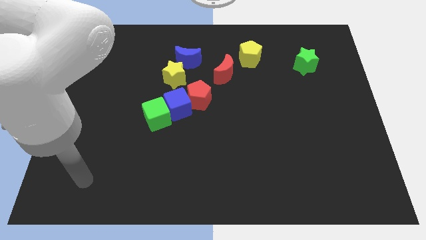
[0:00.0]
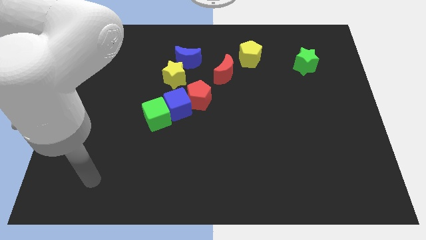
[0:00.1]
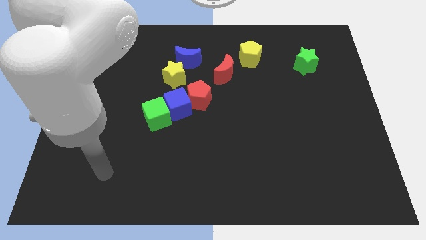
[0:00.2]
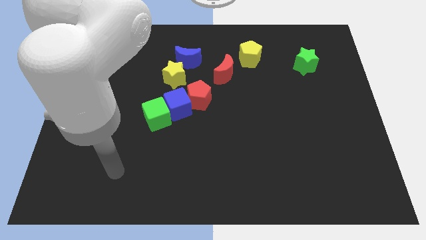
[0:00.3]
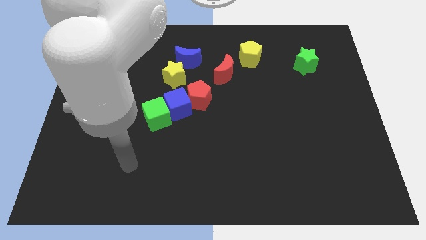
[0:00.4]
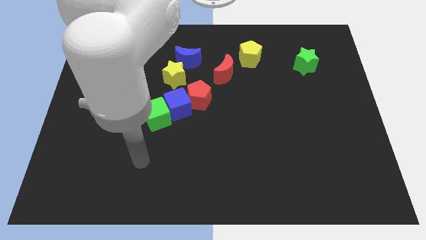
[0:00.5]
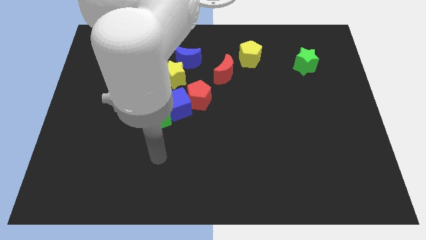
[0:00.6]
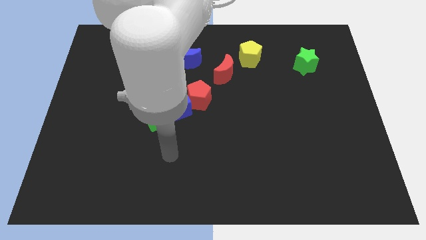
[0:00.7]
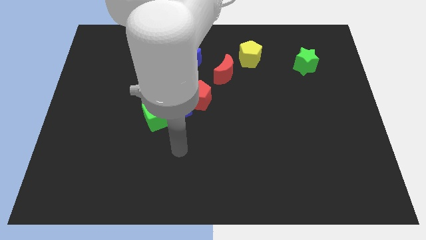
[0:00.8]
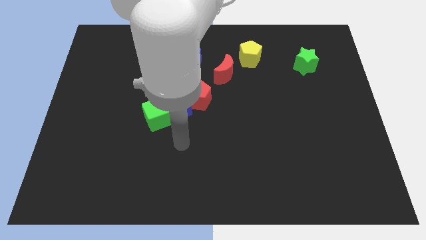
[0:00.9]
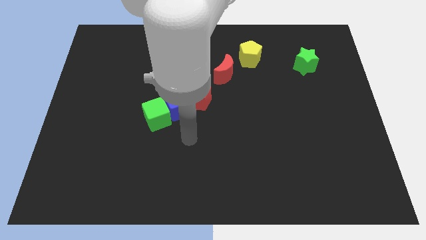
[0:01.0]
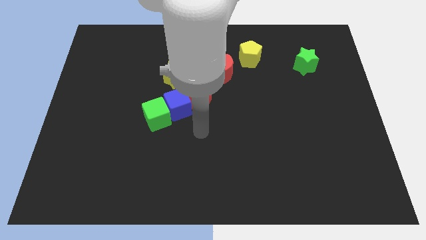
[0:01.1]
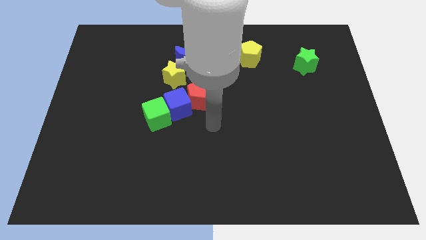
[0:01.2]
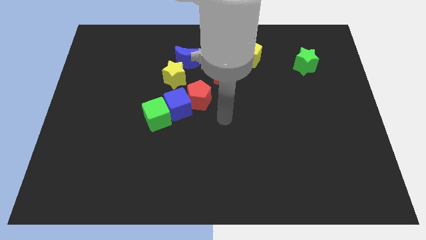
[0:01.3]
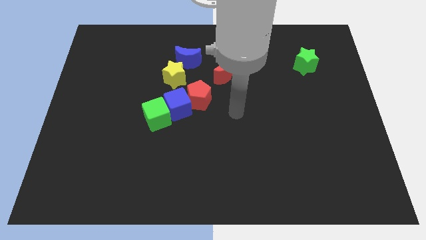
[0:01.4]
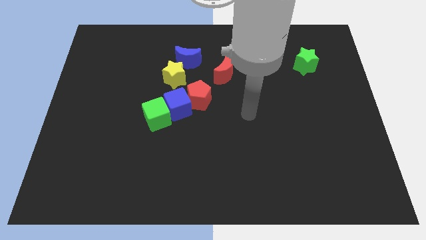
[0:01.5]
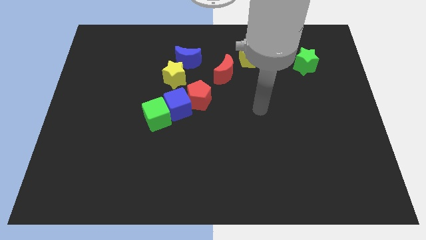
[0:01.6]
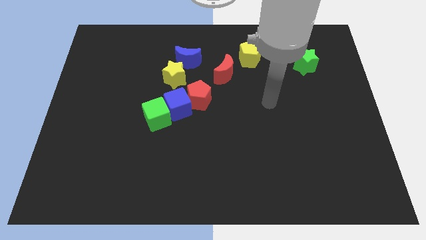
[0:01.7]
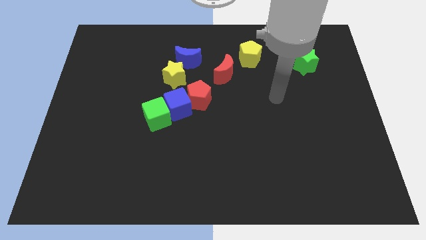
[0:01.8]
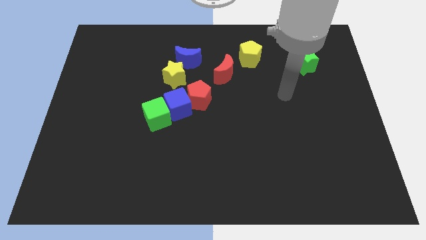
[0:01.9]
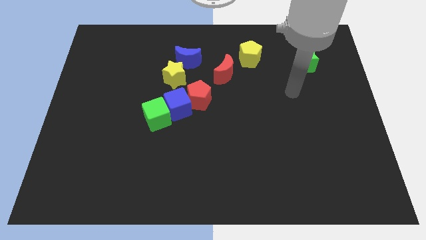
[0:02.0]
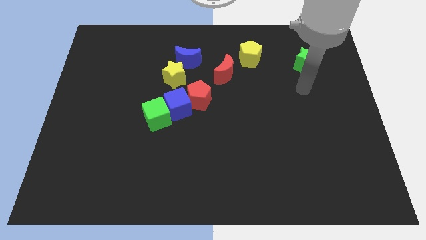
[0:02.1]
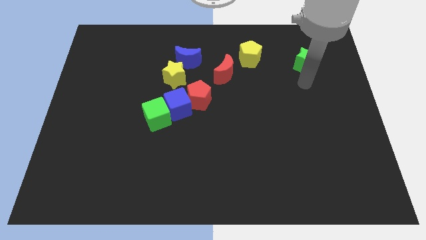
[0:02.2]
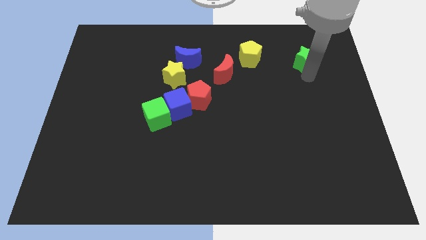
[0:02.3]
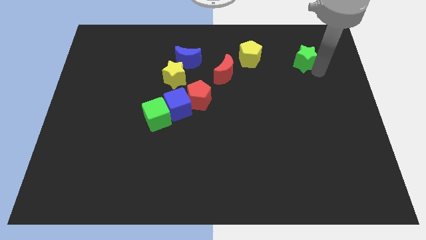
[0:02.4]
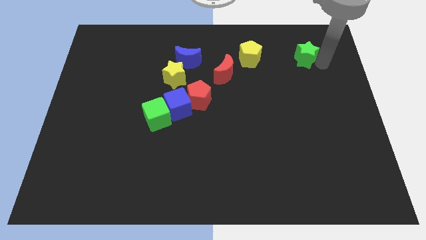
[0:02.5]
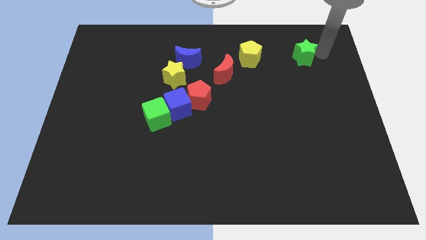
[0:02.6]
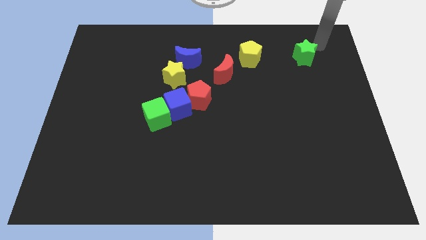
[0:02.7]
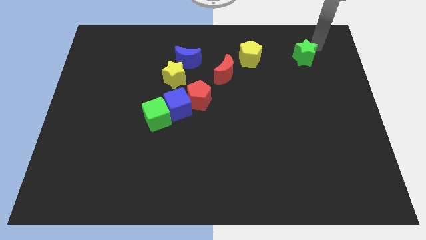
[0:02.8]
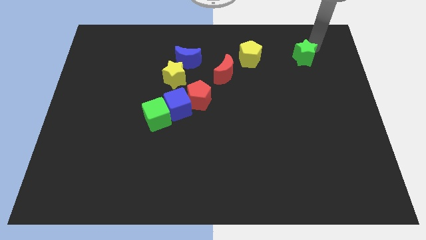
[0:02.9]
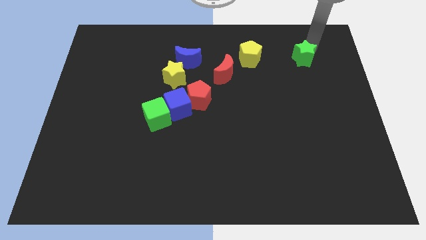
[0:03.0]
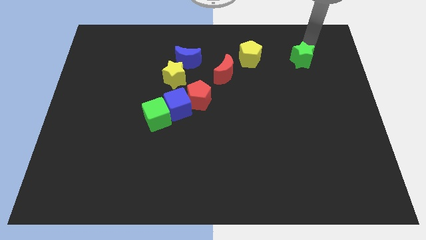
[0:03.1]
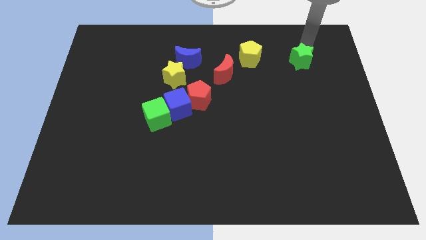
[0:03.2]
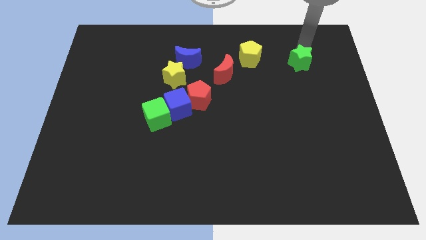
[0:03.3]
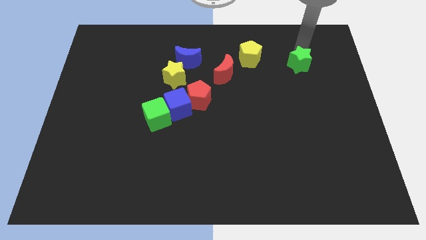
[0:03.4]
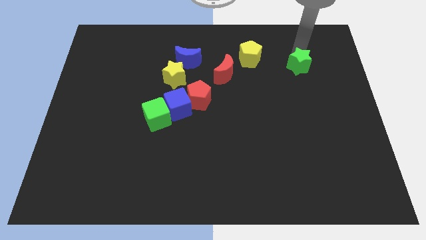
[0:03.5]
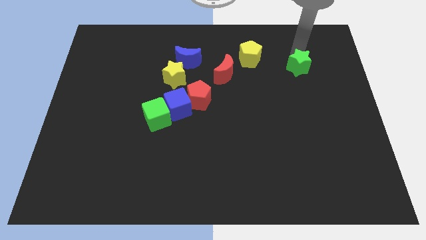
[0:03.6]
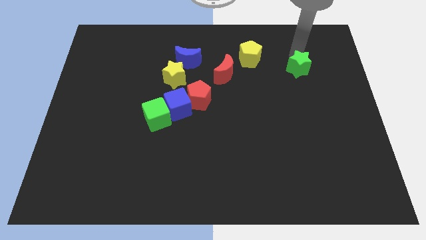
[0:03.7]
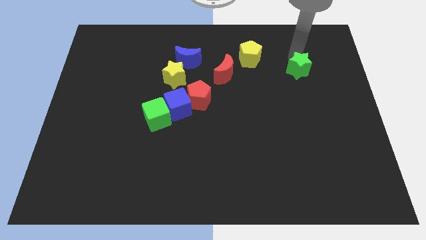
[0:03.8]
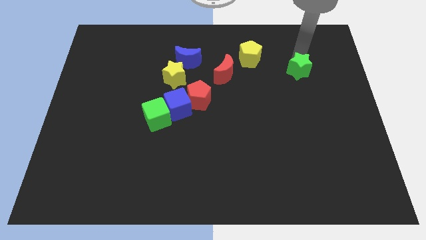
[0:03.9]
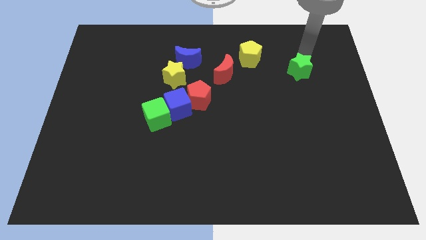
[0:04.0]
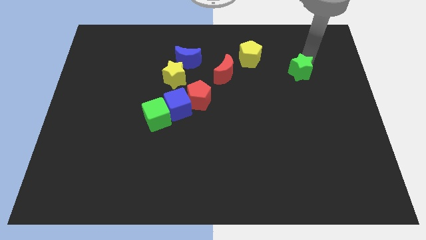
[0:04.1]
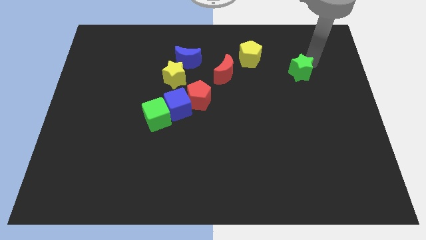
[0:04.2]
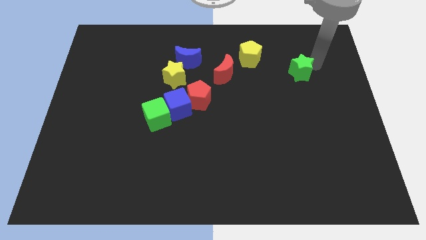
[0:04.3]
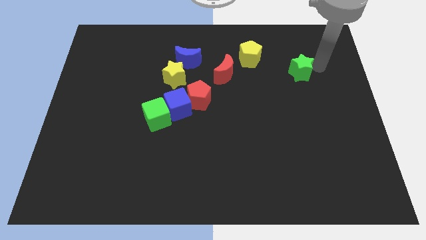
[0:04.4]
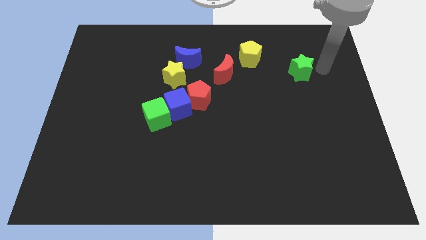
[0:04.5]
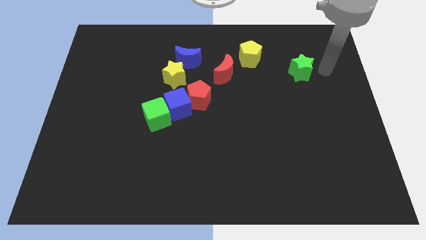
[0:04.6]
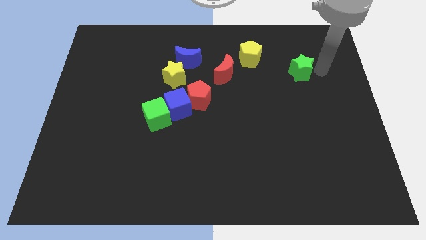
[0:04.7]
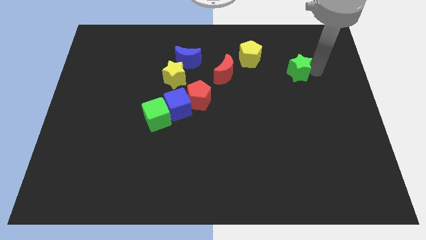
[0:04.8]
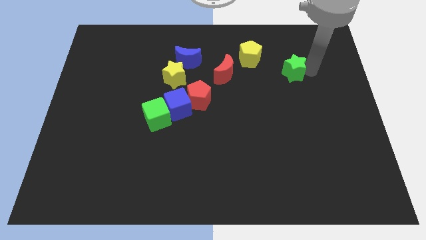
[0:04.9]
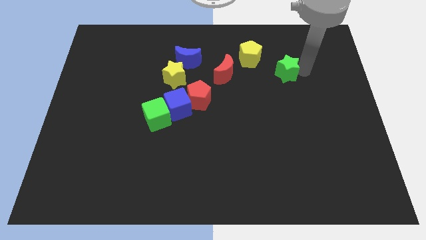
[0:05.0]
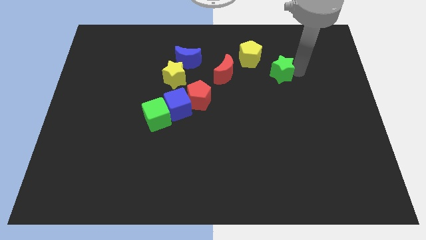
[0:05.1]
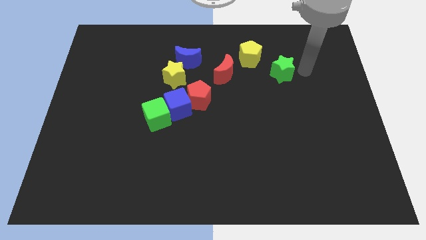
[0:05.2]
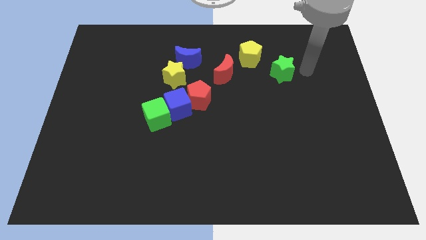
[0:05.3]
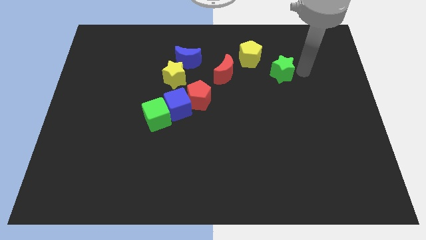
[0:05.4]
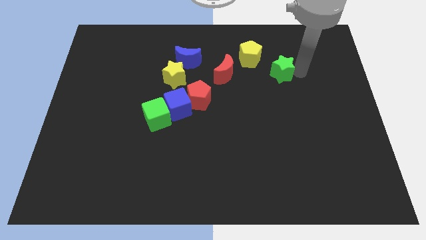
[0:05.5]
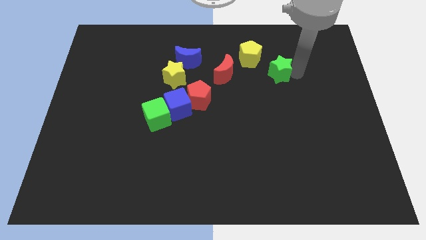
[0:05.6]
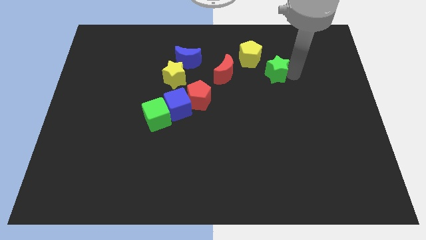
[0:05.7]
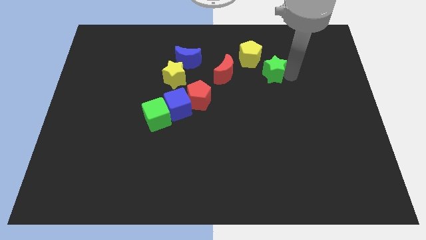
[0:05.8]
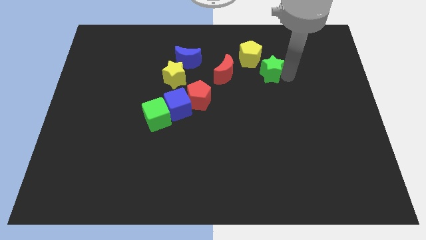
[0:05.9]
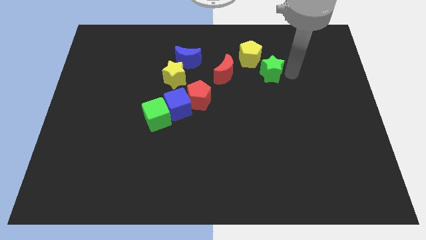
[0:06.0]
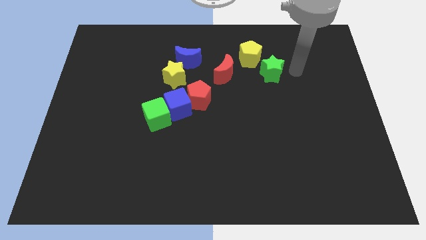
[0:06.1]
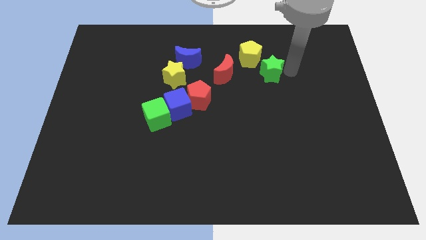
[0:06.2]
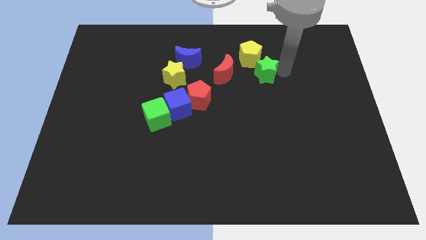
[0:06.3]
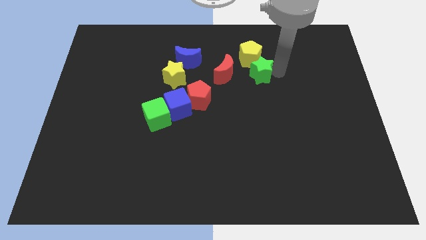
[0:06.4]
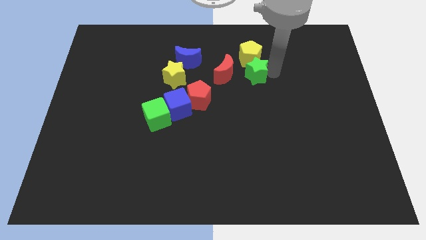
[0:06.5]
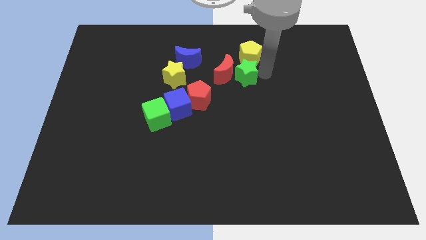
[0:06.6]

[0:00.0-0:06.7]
push the green star close to the red moon

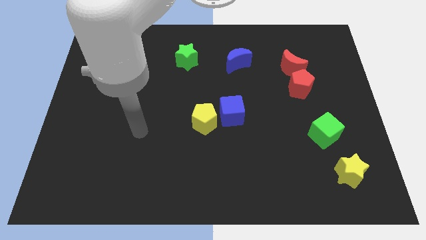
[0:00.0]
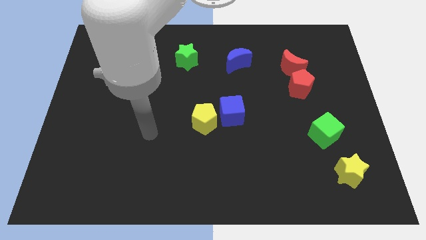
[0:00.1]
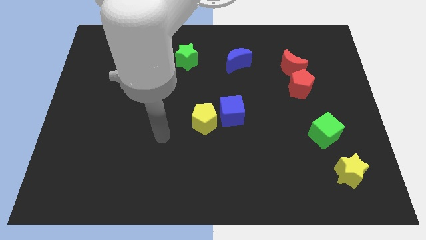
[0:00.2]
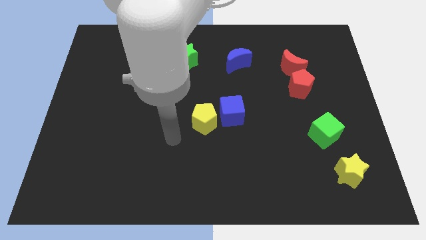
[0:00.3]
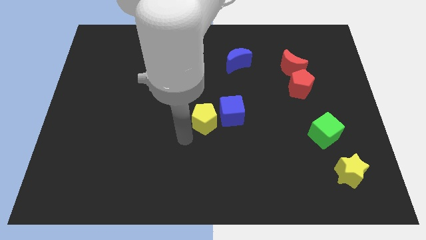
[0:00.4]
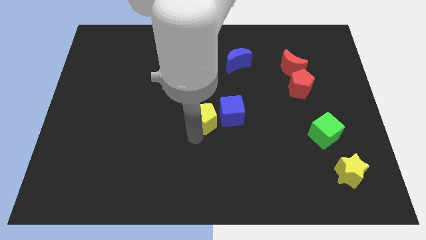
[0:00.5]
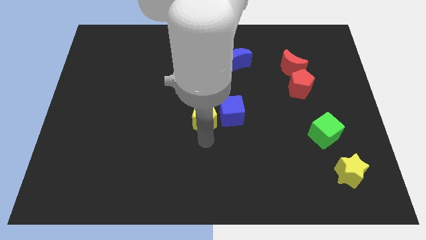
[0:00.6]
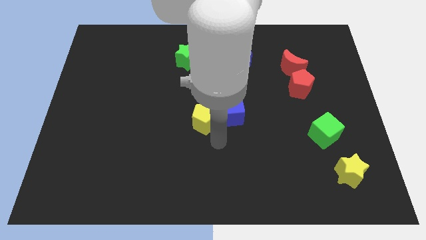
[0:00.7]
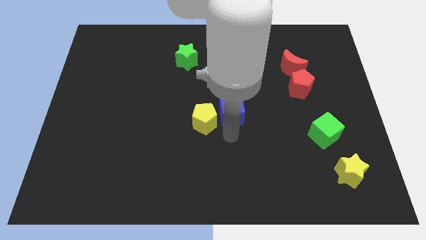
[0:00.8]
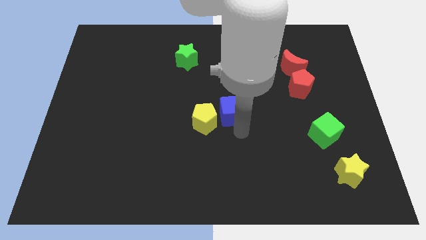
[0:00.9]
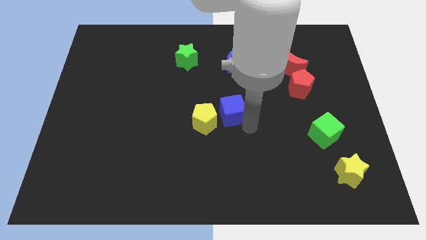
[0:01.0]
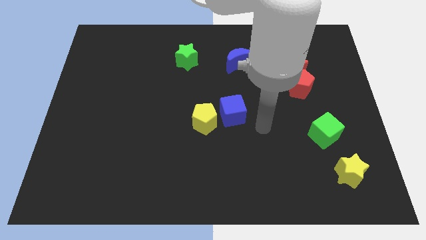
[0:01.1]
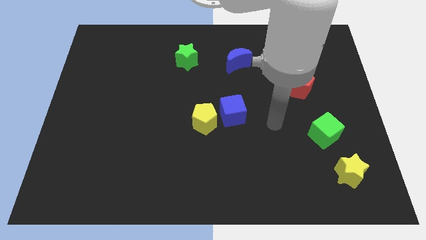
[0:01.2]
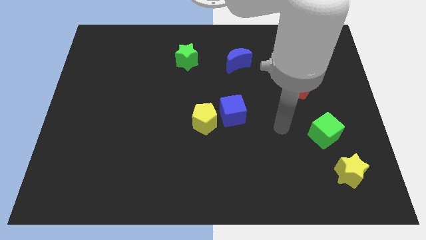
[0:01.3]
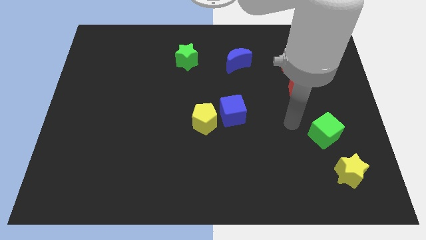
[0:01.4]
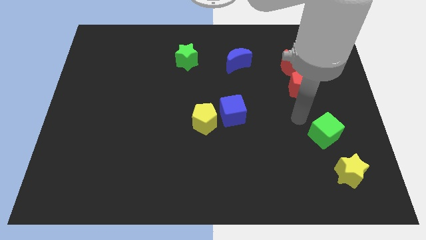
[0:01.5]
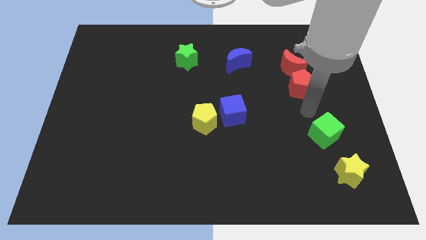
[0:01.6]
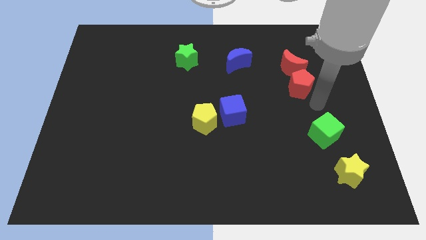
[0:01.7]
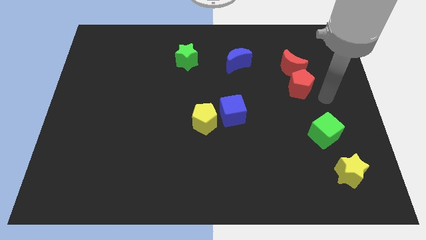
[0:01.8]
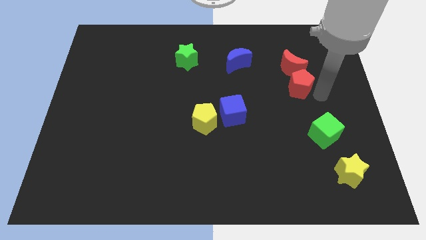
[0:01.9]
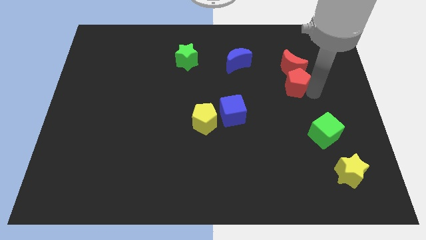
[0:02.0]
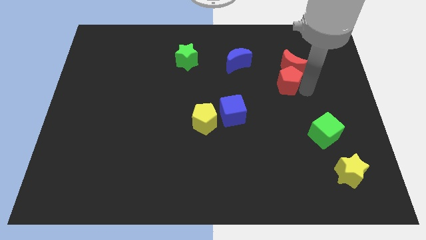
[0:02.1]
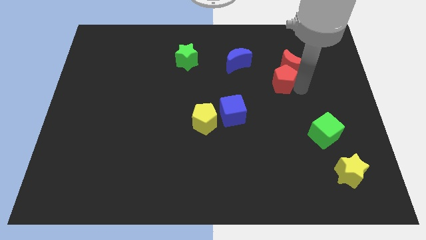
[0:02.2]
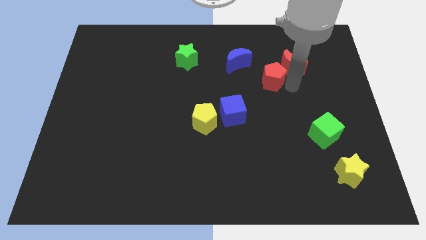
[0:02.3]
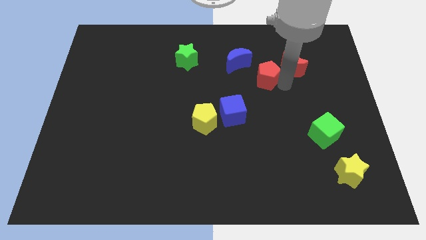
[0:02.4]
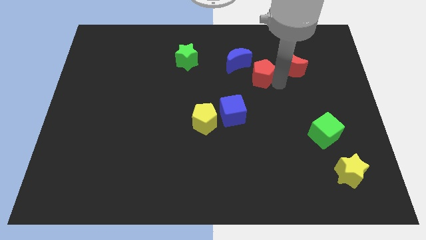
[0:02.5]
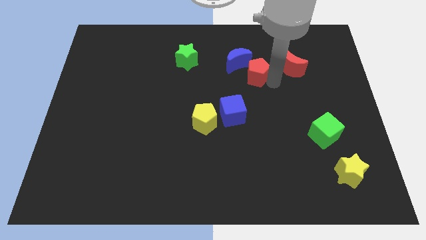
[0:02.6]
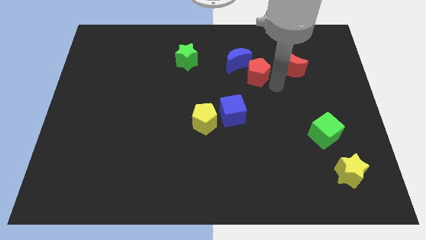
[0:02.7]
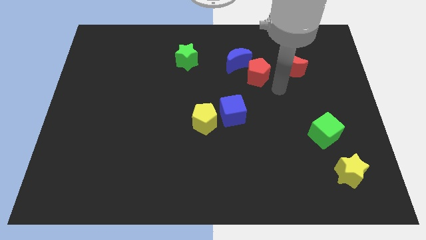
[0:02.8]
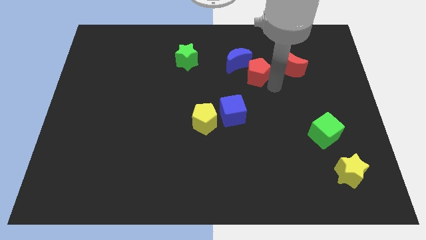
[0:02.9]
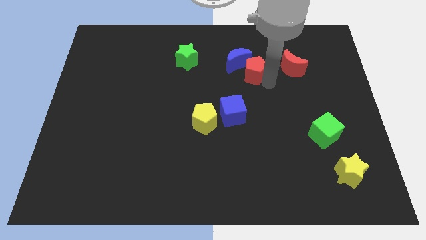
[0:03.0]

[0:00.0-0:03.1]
put the red pentagon towards the blue moon
